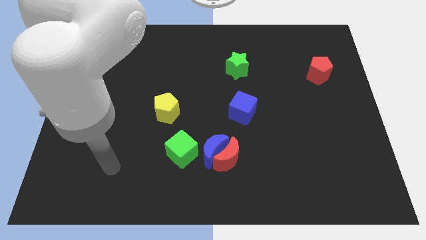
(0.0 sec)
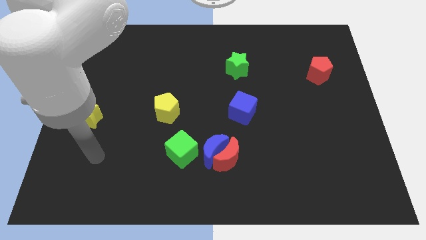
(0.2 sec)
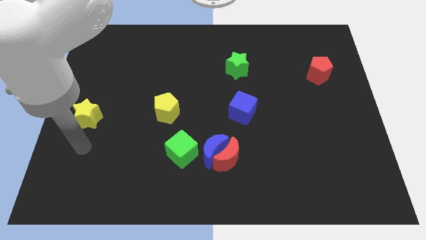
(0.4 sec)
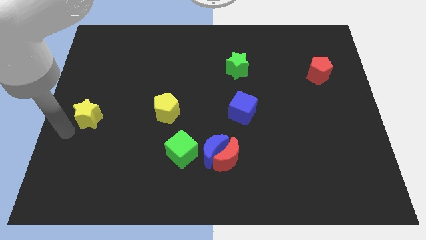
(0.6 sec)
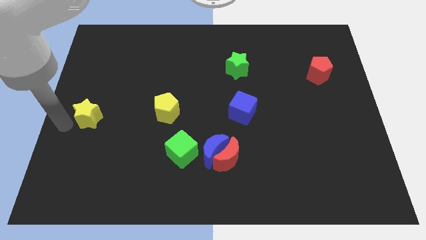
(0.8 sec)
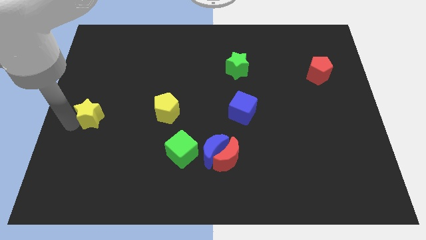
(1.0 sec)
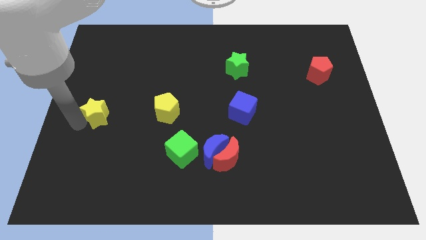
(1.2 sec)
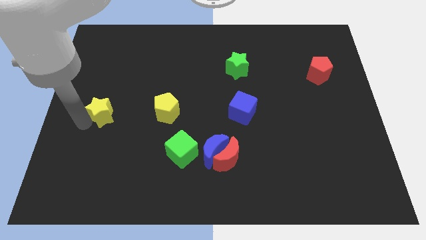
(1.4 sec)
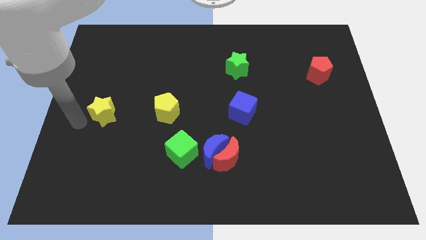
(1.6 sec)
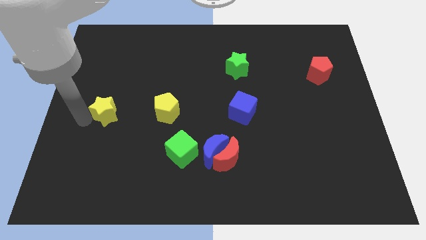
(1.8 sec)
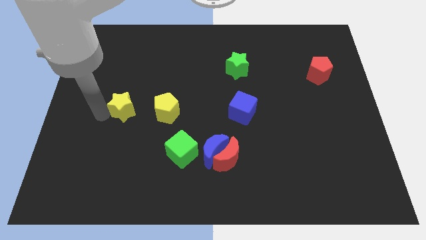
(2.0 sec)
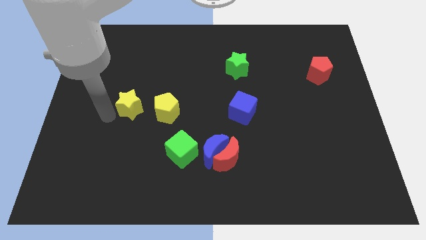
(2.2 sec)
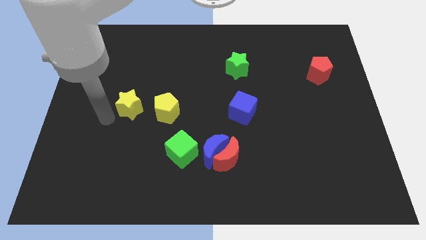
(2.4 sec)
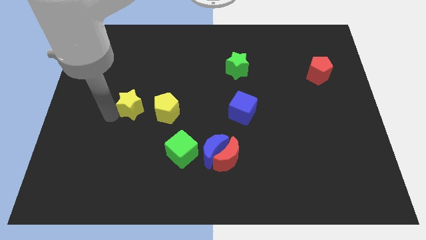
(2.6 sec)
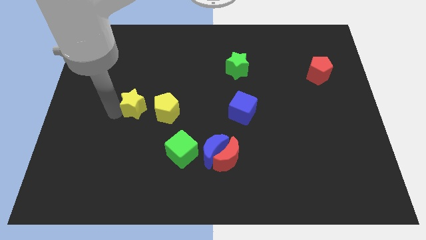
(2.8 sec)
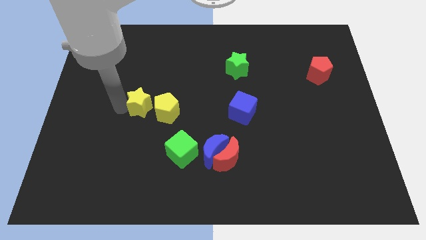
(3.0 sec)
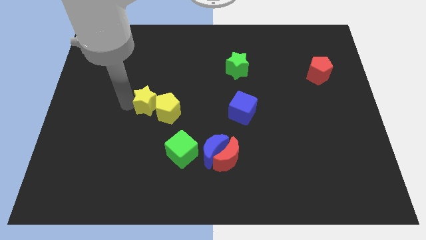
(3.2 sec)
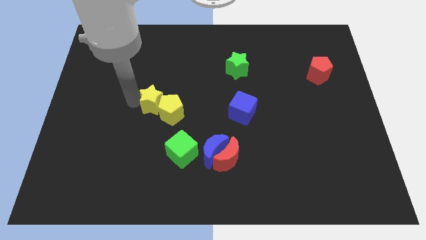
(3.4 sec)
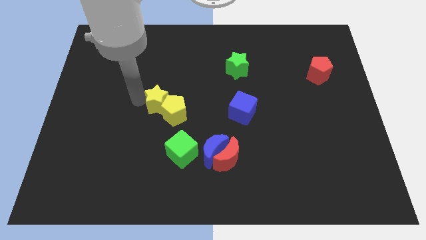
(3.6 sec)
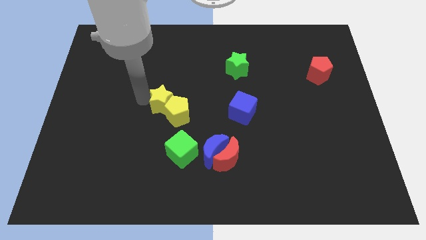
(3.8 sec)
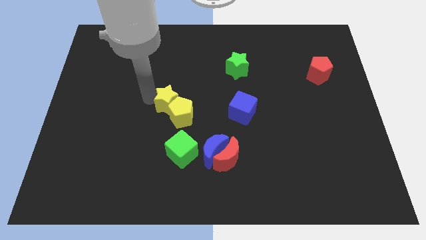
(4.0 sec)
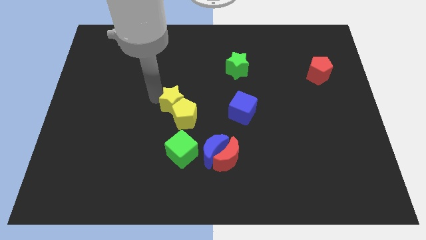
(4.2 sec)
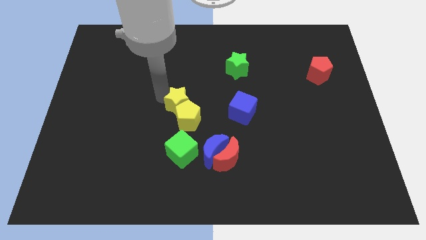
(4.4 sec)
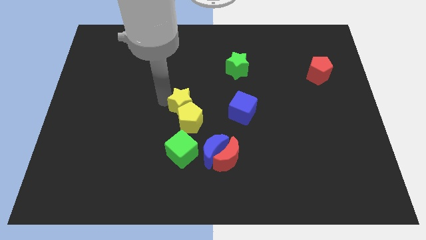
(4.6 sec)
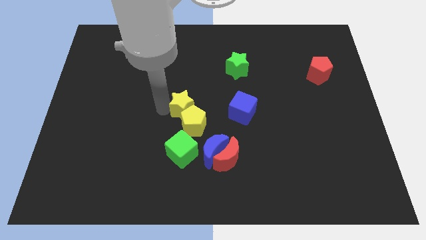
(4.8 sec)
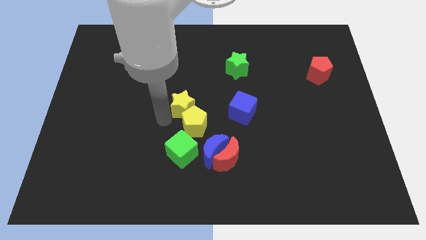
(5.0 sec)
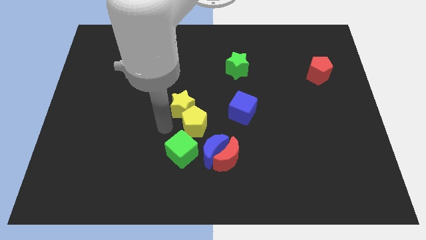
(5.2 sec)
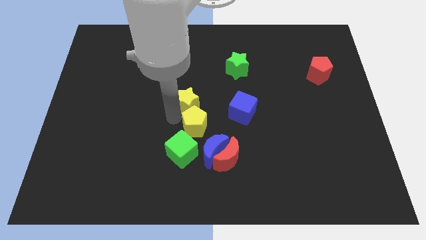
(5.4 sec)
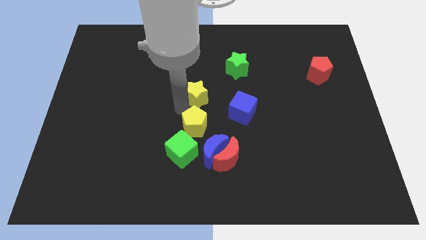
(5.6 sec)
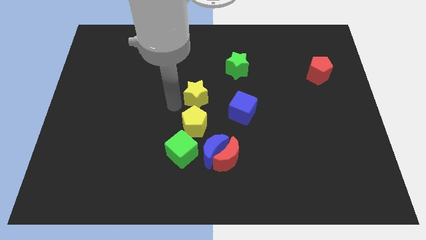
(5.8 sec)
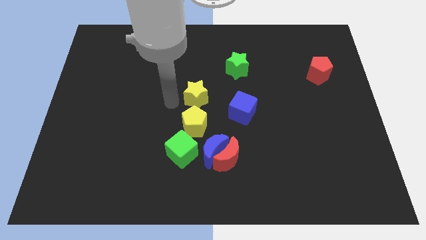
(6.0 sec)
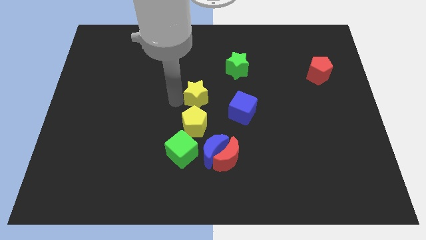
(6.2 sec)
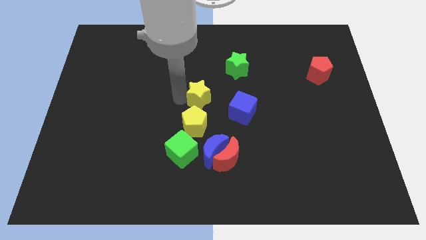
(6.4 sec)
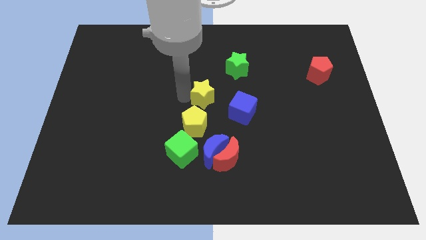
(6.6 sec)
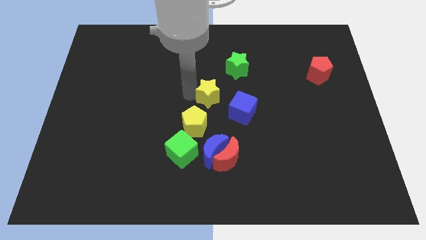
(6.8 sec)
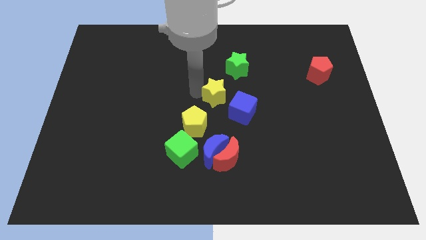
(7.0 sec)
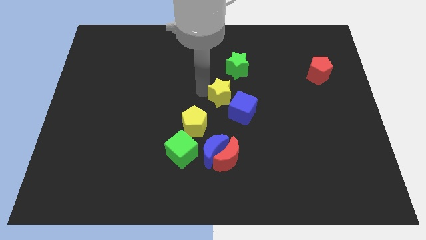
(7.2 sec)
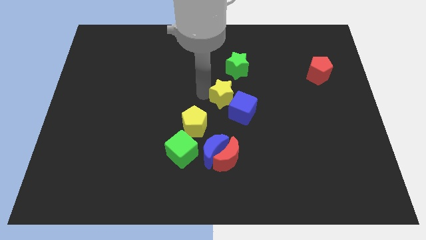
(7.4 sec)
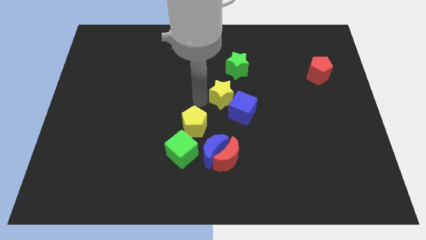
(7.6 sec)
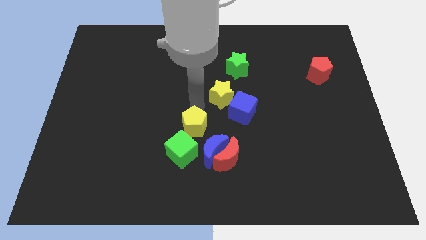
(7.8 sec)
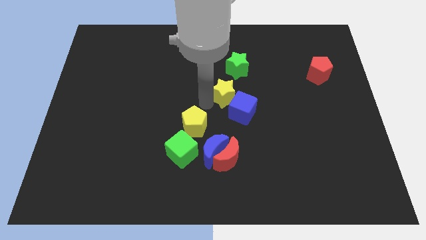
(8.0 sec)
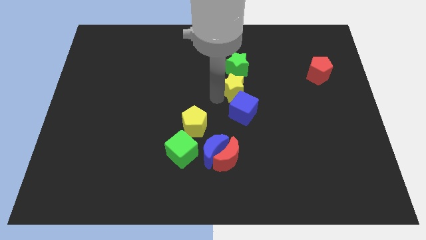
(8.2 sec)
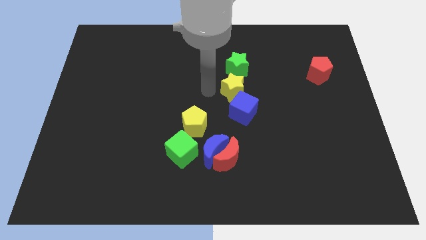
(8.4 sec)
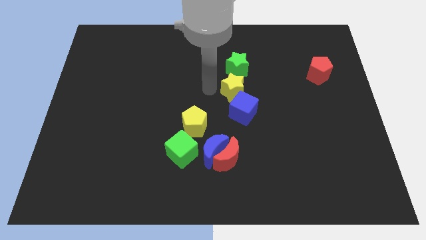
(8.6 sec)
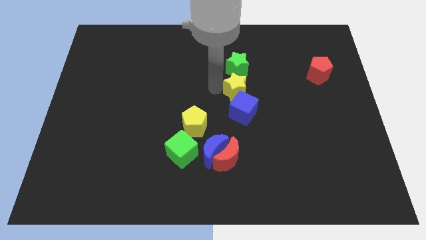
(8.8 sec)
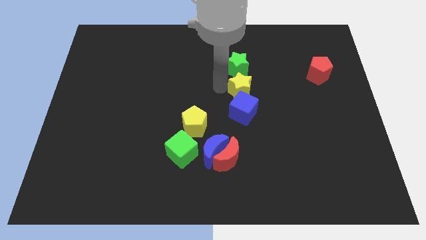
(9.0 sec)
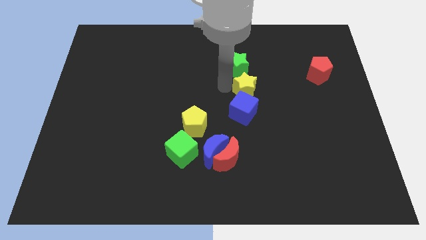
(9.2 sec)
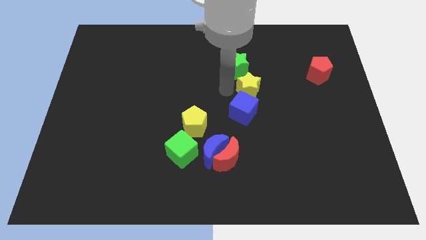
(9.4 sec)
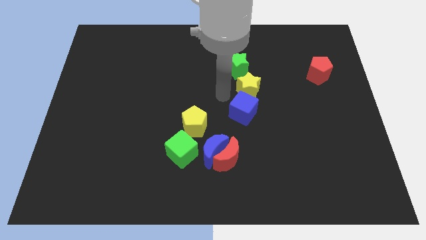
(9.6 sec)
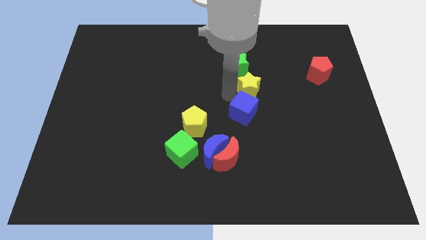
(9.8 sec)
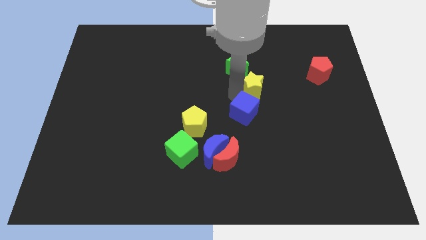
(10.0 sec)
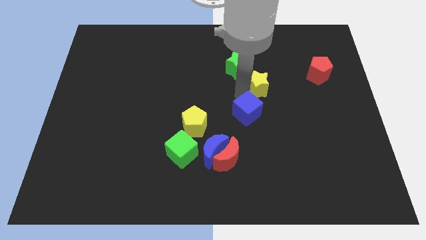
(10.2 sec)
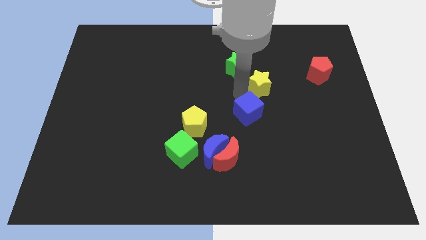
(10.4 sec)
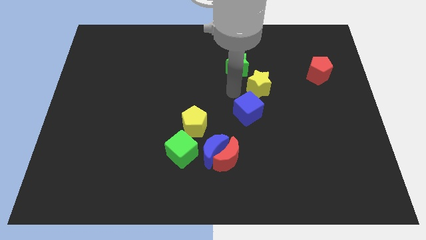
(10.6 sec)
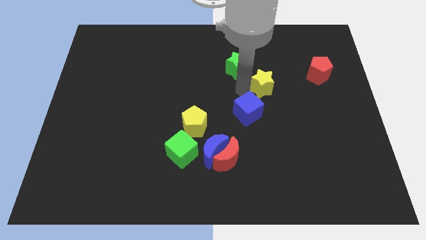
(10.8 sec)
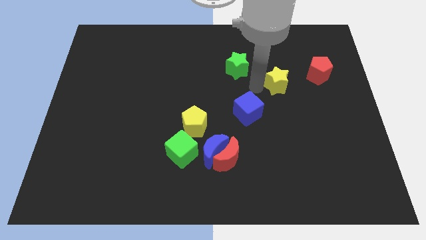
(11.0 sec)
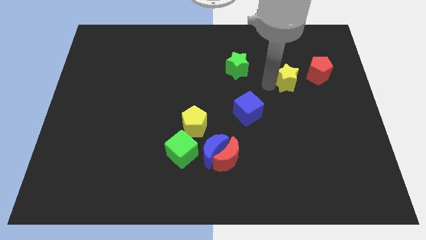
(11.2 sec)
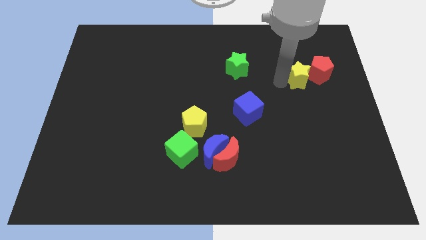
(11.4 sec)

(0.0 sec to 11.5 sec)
push the yellow star to the red pentagon

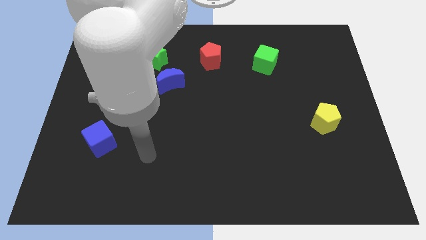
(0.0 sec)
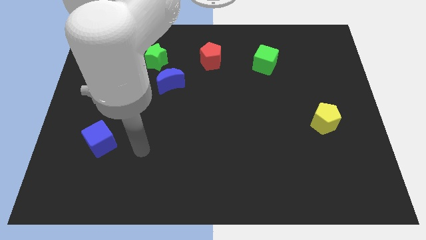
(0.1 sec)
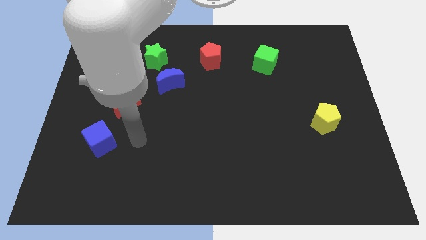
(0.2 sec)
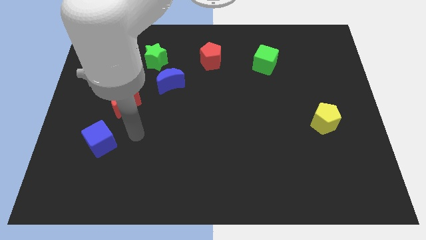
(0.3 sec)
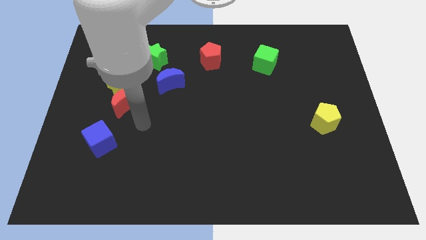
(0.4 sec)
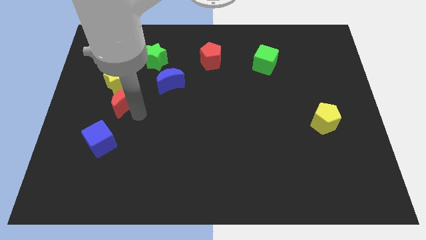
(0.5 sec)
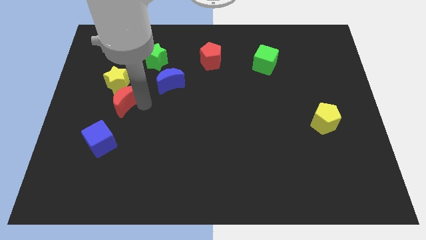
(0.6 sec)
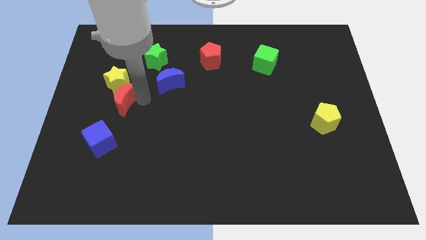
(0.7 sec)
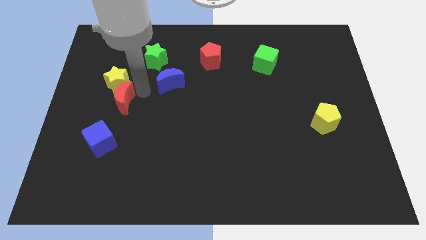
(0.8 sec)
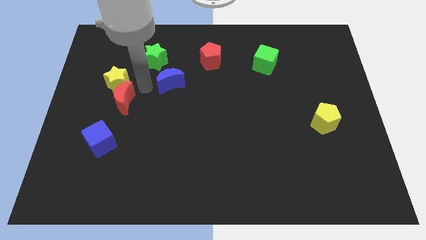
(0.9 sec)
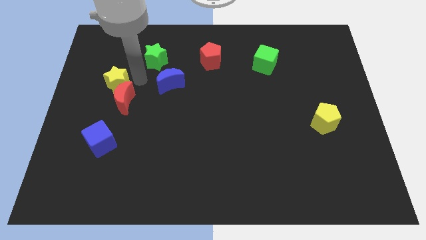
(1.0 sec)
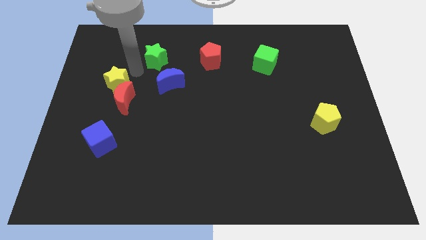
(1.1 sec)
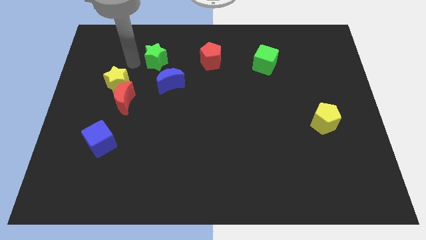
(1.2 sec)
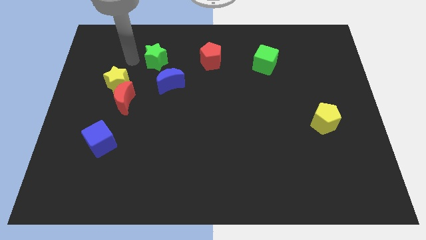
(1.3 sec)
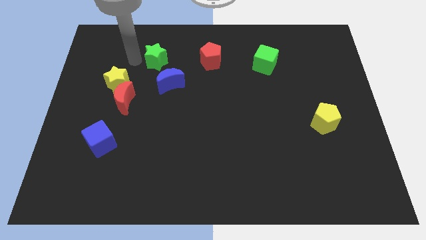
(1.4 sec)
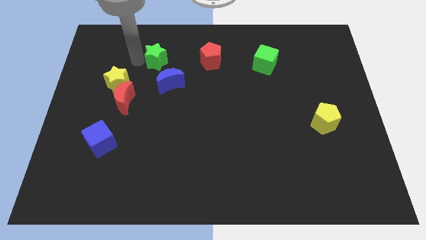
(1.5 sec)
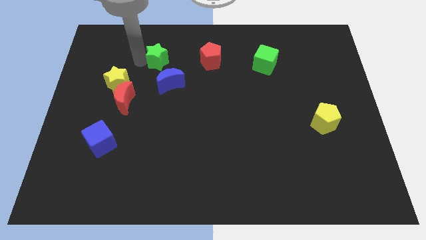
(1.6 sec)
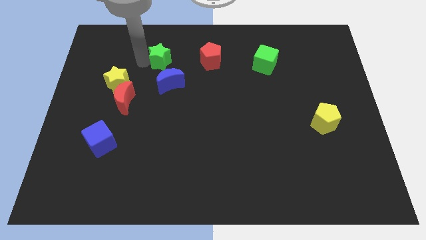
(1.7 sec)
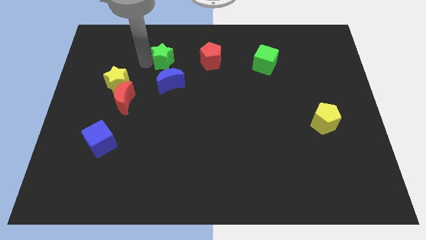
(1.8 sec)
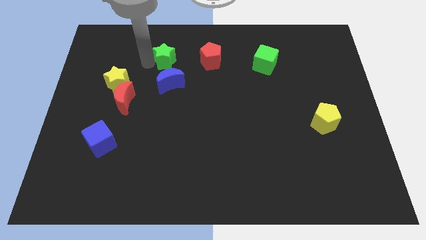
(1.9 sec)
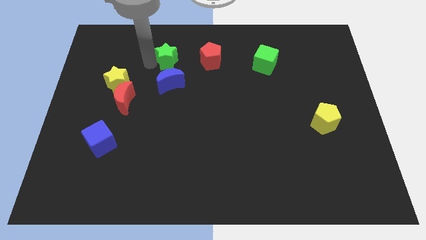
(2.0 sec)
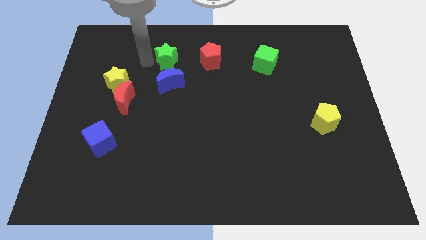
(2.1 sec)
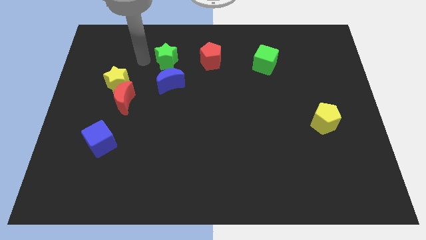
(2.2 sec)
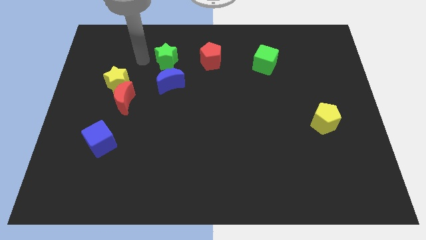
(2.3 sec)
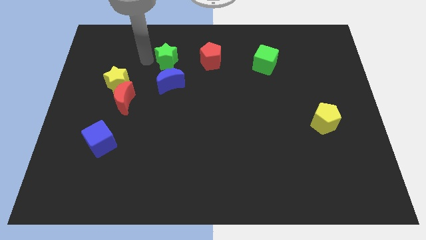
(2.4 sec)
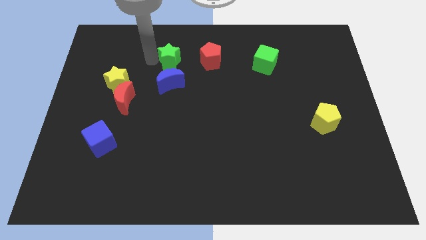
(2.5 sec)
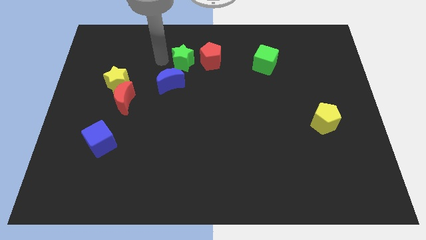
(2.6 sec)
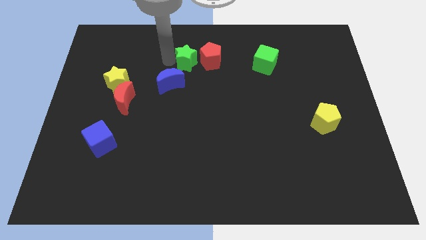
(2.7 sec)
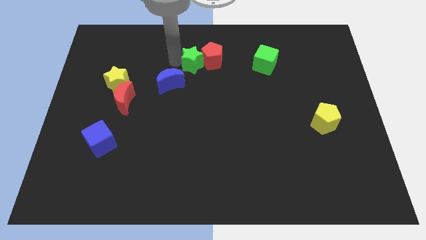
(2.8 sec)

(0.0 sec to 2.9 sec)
push the green star next to the red pentagon
